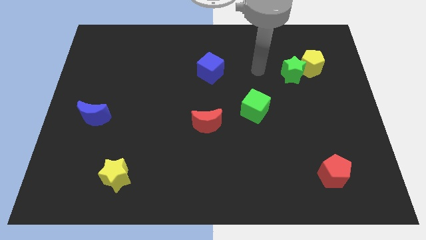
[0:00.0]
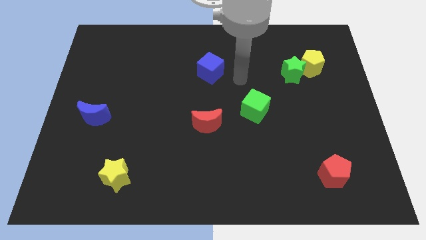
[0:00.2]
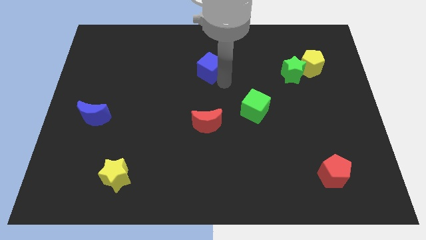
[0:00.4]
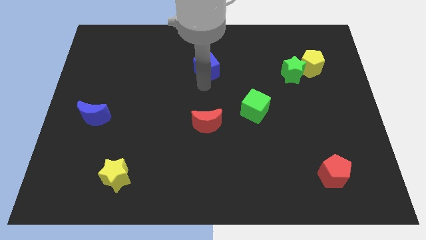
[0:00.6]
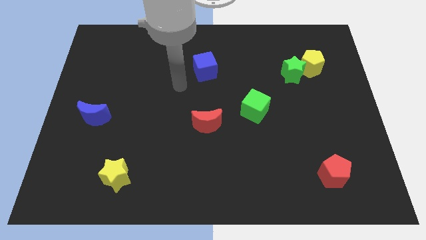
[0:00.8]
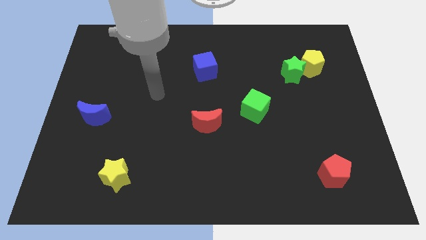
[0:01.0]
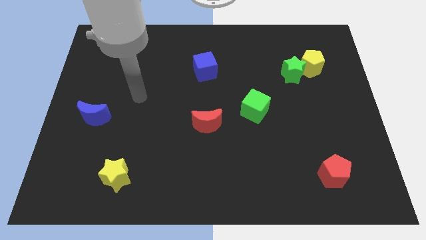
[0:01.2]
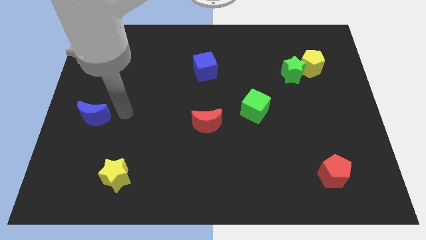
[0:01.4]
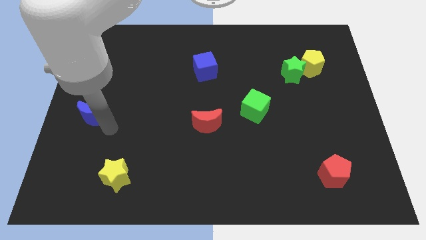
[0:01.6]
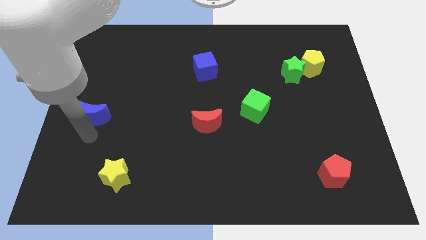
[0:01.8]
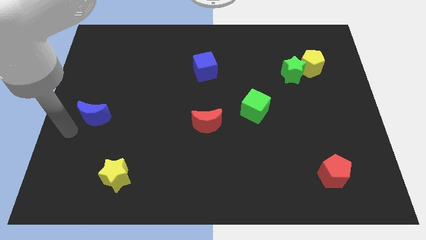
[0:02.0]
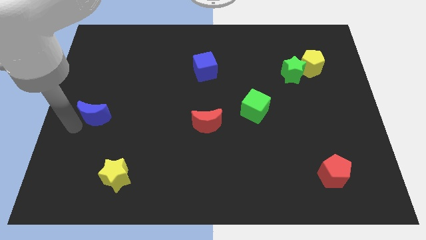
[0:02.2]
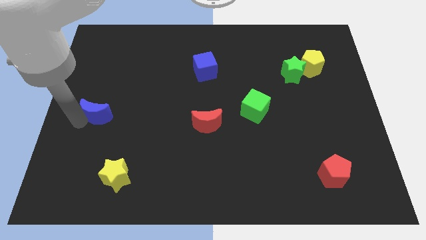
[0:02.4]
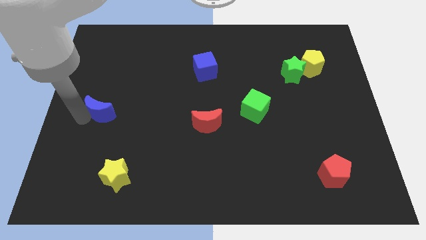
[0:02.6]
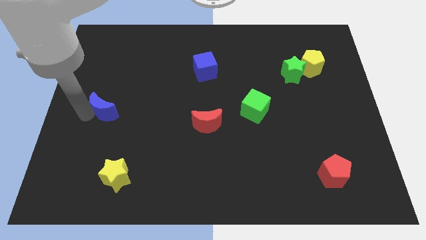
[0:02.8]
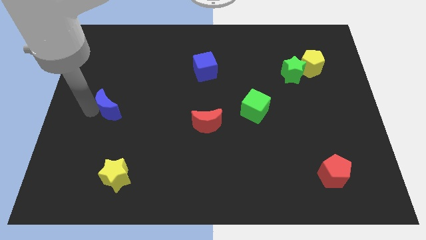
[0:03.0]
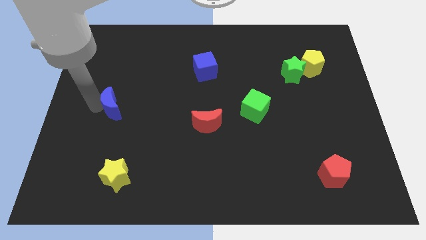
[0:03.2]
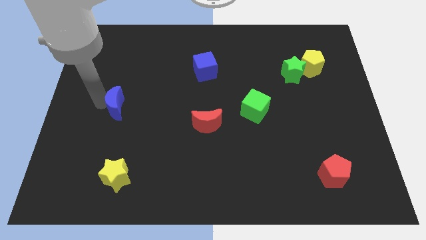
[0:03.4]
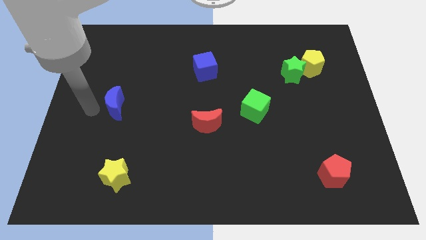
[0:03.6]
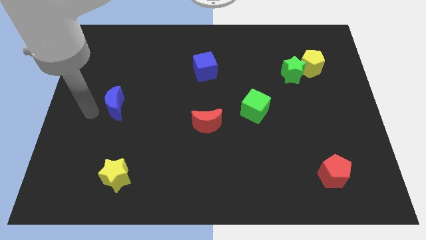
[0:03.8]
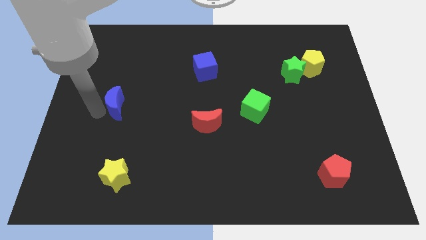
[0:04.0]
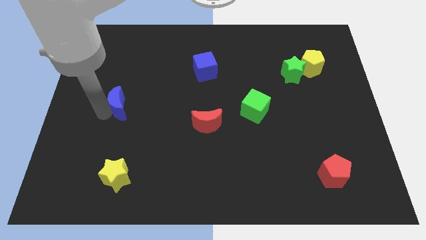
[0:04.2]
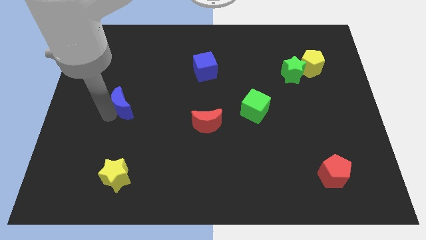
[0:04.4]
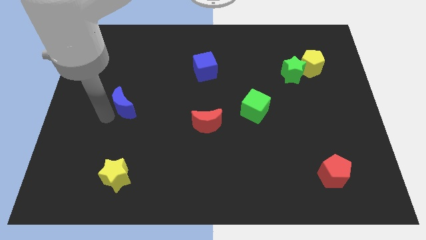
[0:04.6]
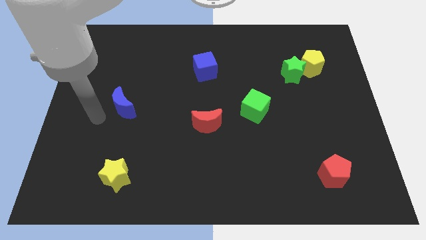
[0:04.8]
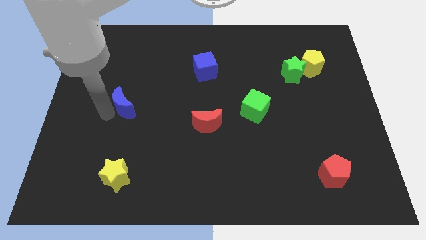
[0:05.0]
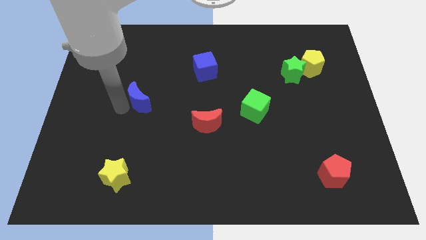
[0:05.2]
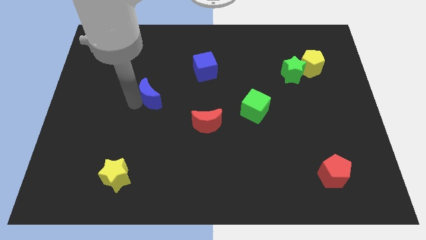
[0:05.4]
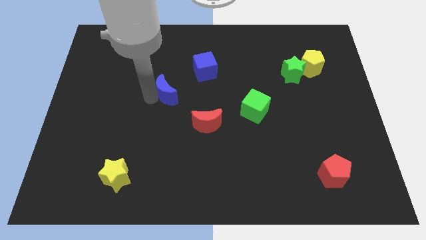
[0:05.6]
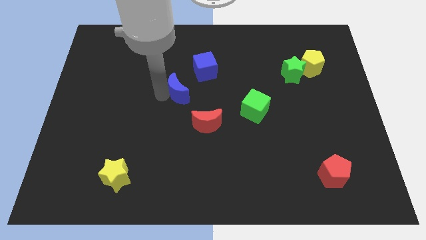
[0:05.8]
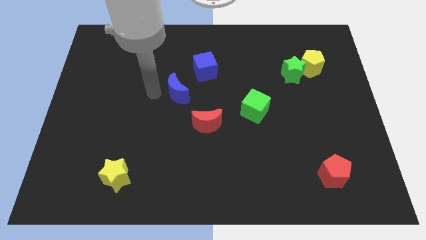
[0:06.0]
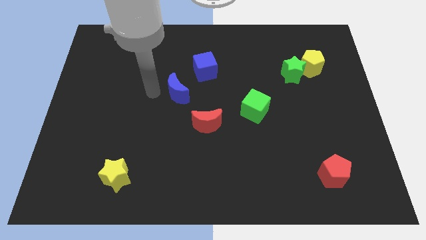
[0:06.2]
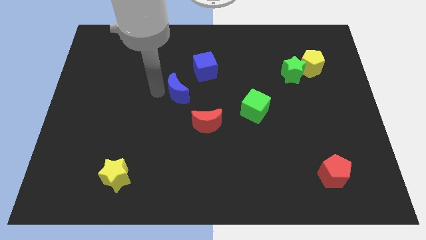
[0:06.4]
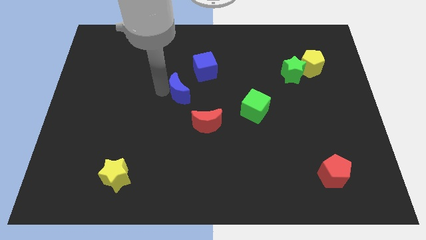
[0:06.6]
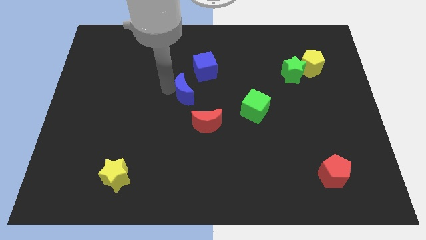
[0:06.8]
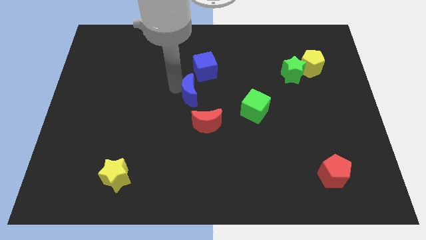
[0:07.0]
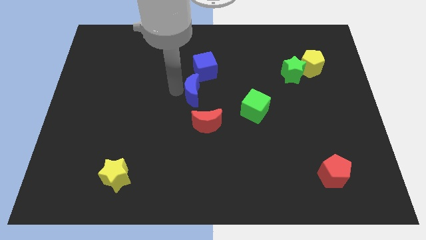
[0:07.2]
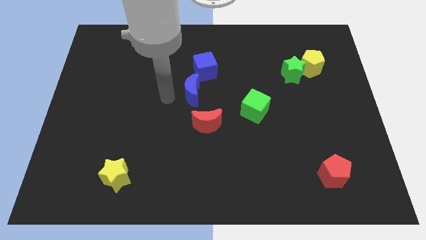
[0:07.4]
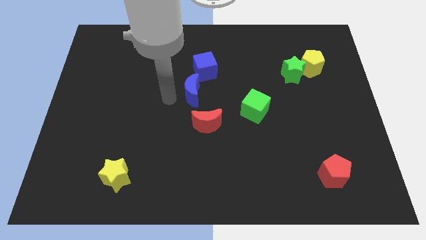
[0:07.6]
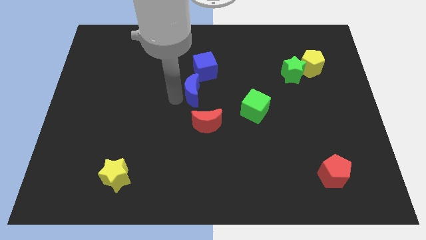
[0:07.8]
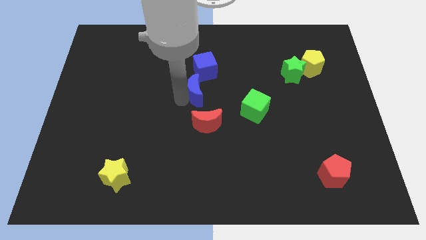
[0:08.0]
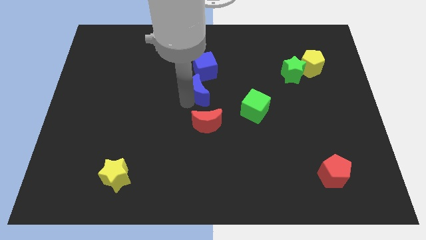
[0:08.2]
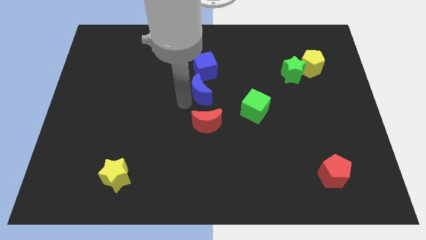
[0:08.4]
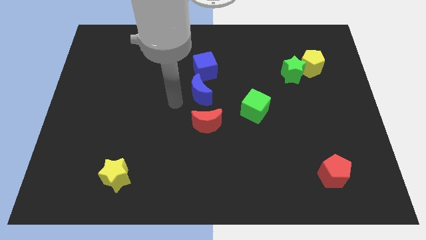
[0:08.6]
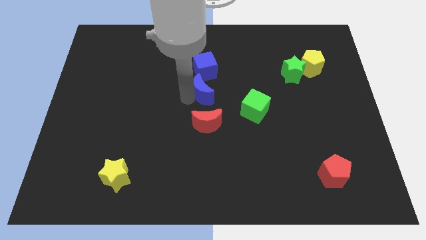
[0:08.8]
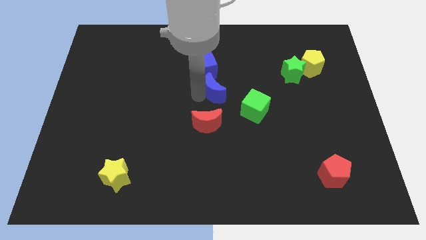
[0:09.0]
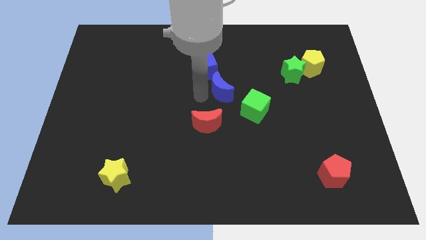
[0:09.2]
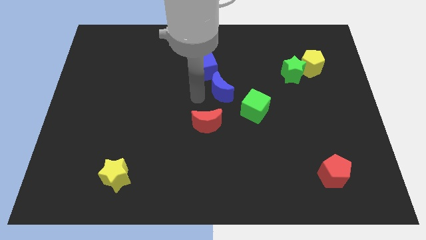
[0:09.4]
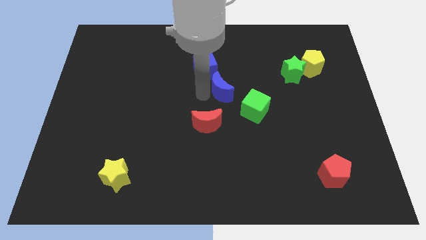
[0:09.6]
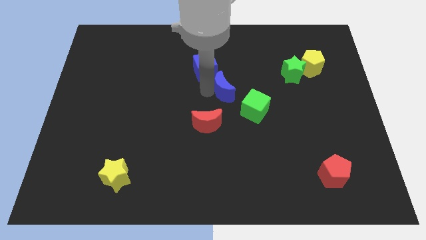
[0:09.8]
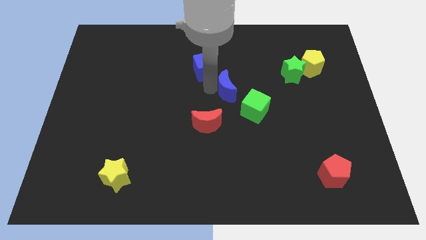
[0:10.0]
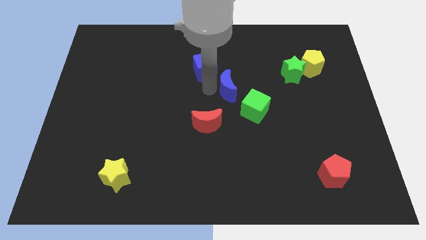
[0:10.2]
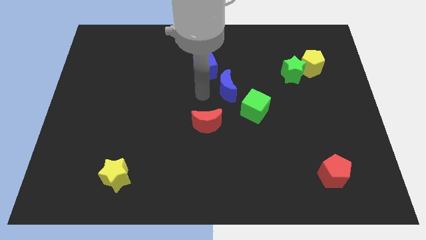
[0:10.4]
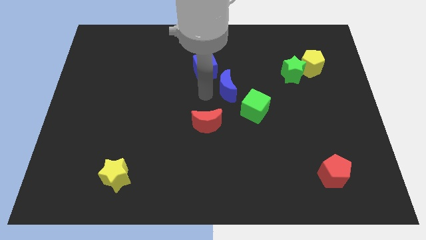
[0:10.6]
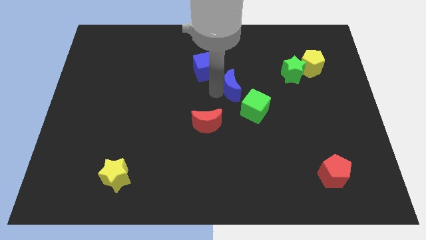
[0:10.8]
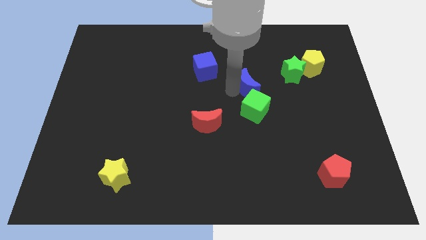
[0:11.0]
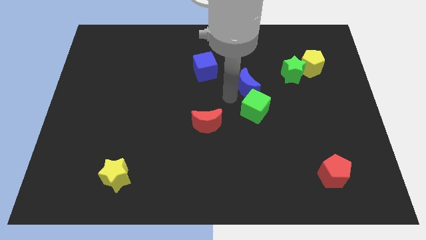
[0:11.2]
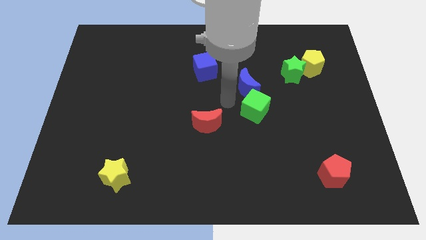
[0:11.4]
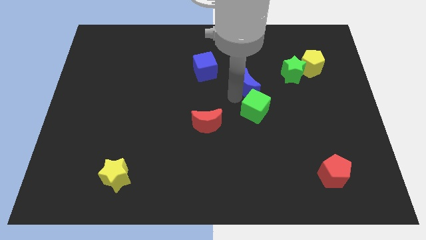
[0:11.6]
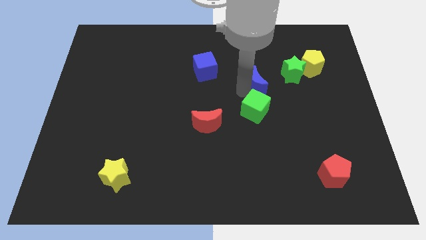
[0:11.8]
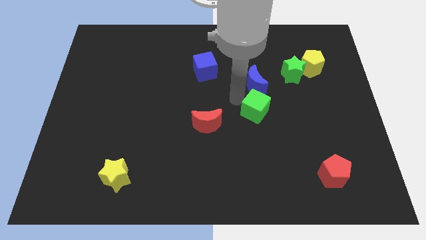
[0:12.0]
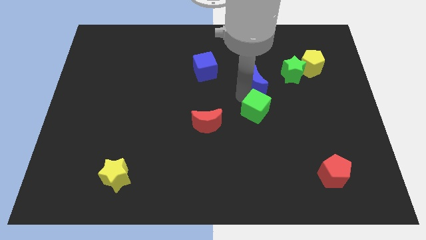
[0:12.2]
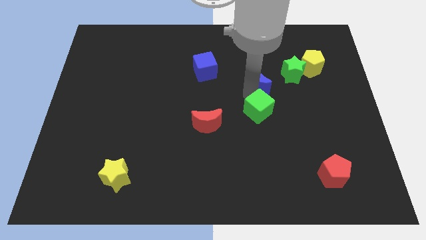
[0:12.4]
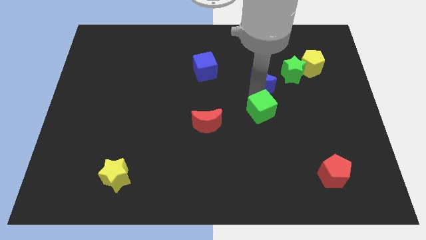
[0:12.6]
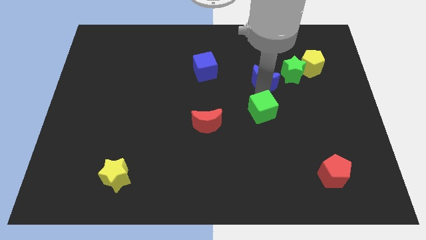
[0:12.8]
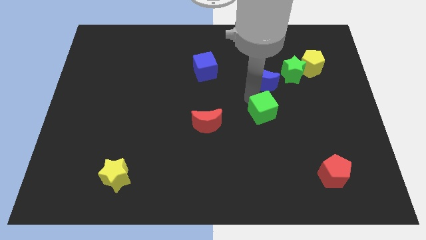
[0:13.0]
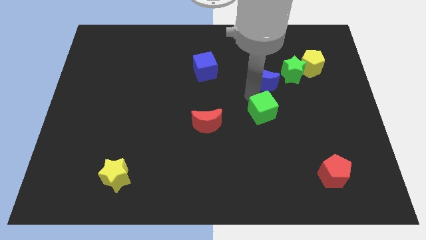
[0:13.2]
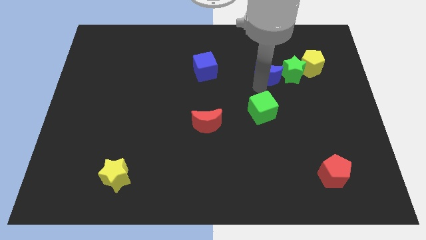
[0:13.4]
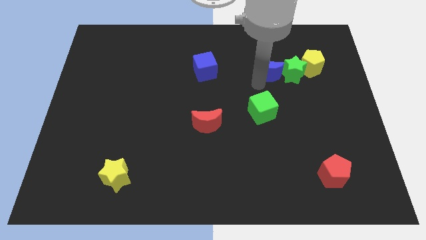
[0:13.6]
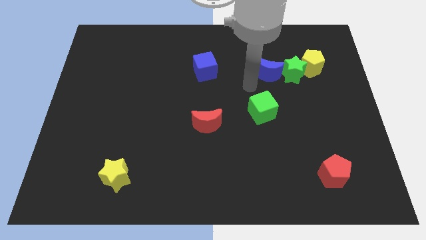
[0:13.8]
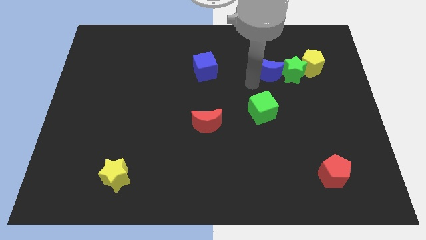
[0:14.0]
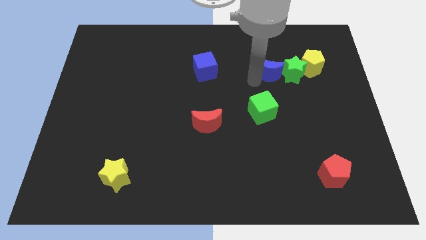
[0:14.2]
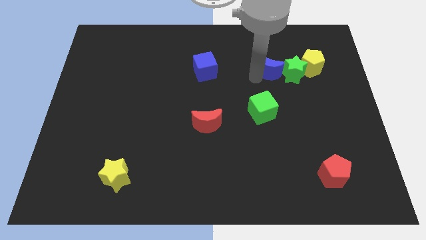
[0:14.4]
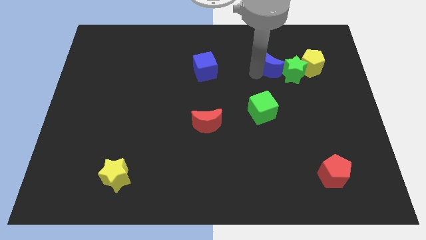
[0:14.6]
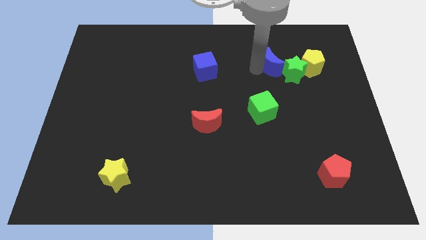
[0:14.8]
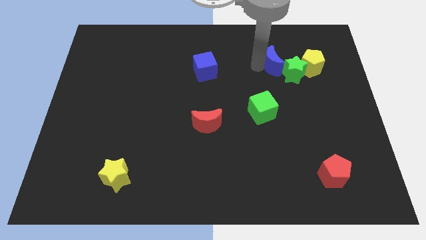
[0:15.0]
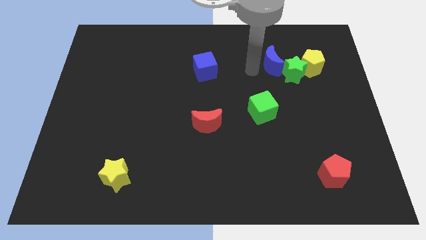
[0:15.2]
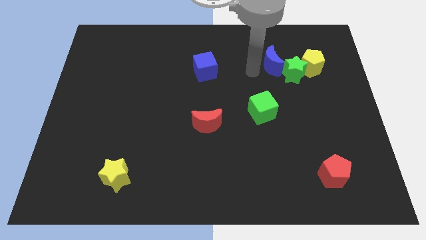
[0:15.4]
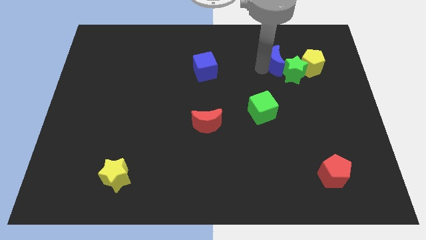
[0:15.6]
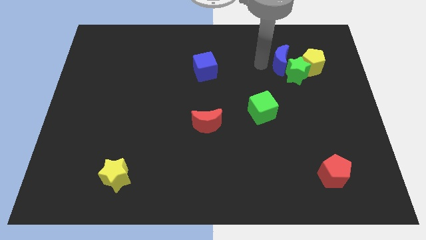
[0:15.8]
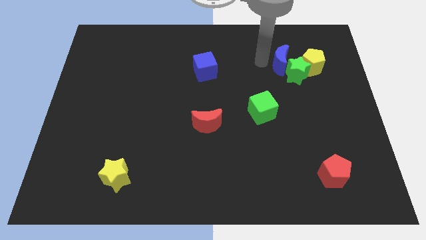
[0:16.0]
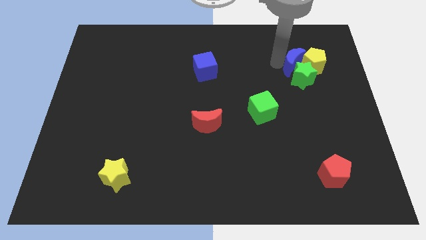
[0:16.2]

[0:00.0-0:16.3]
put the blue moon close to the yellow pentagon
